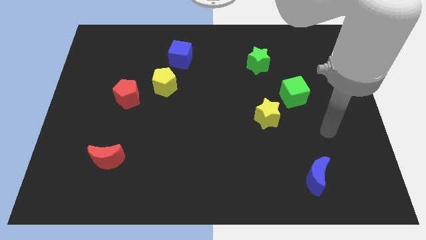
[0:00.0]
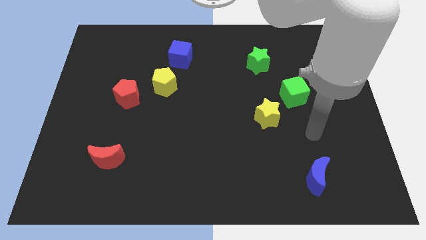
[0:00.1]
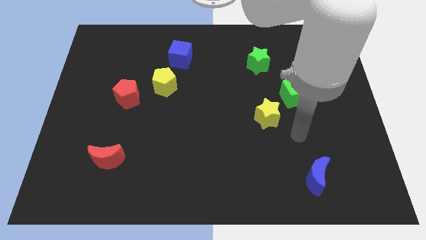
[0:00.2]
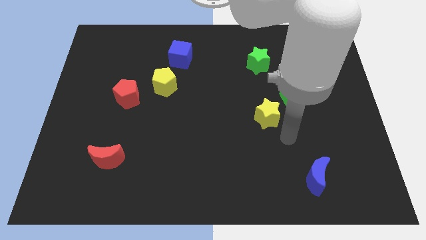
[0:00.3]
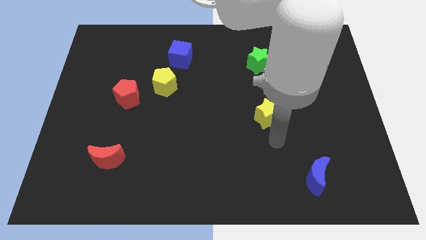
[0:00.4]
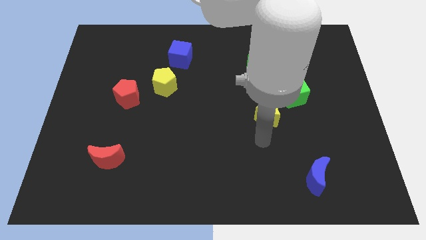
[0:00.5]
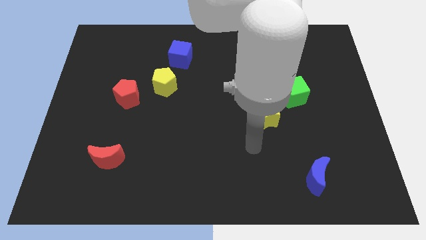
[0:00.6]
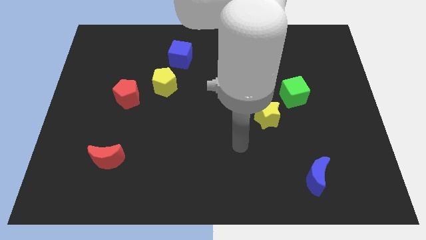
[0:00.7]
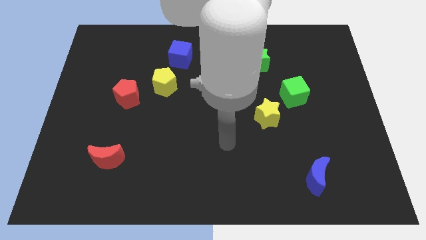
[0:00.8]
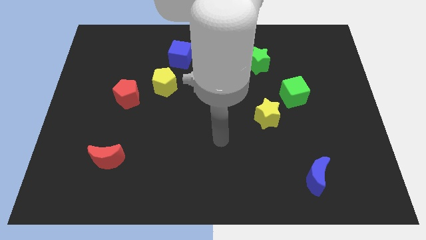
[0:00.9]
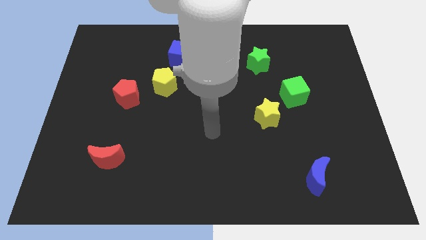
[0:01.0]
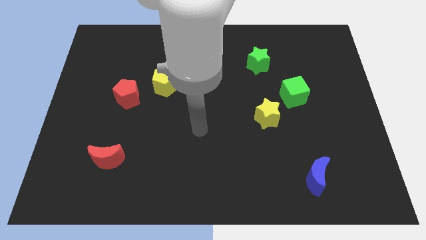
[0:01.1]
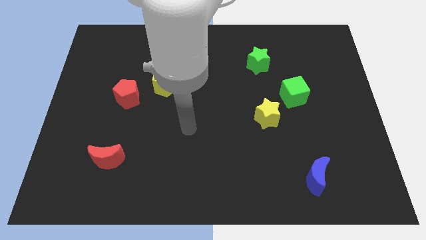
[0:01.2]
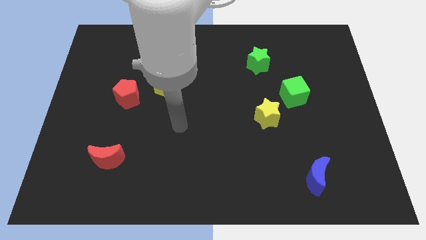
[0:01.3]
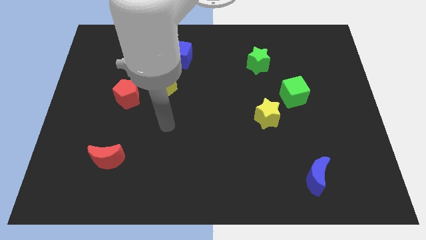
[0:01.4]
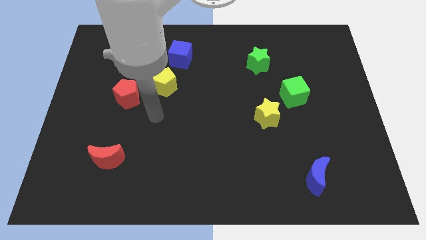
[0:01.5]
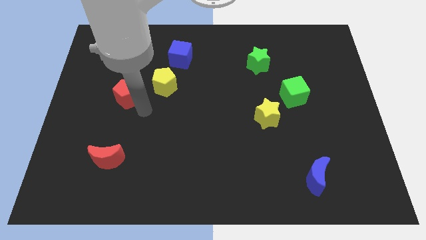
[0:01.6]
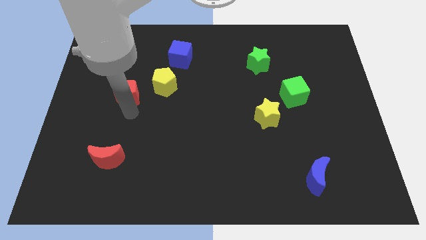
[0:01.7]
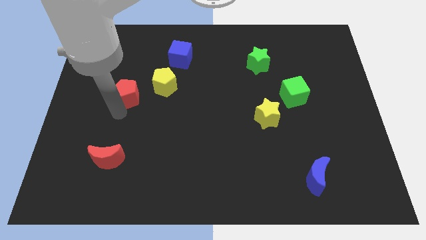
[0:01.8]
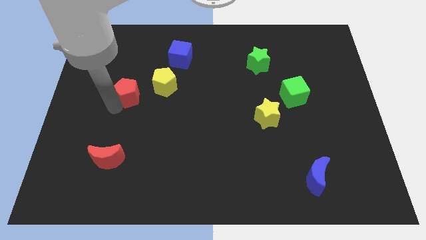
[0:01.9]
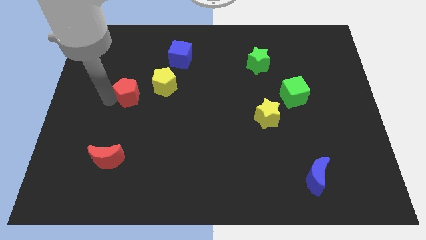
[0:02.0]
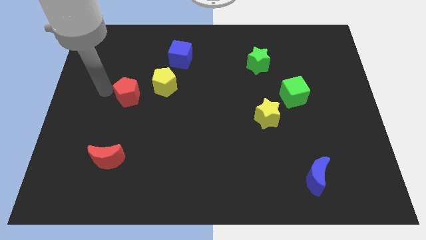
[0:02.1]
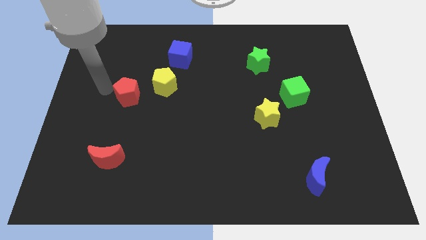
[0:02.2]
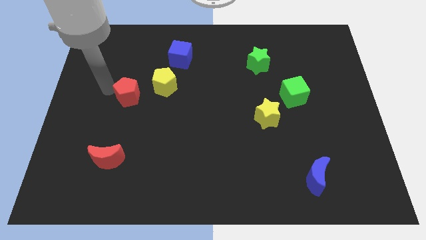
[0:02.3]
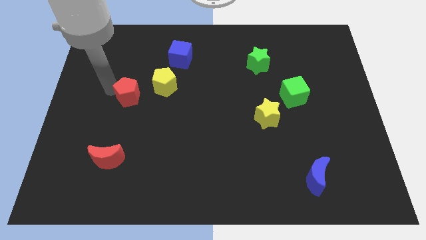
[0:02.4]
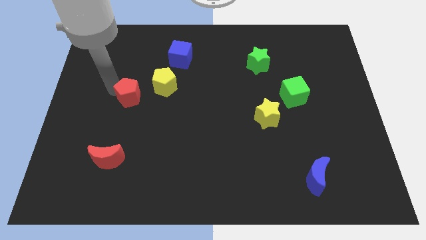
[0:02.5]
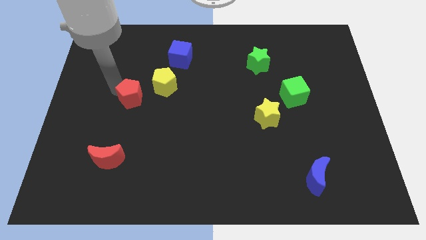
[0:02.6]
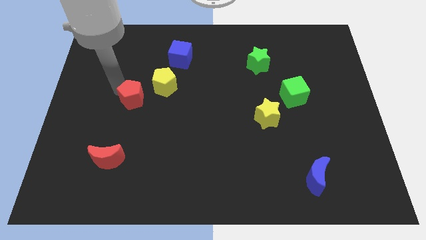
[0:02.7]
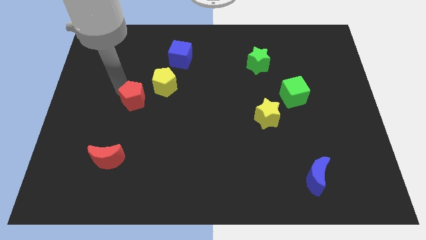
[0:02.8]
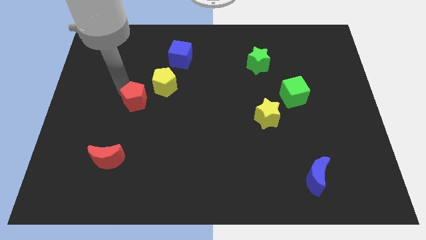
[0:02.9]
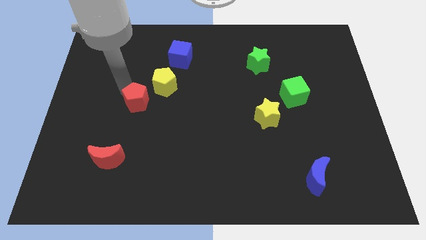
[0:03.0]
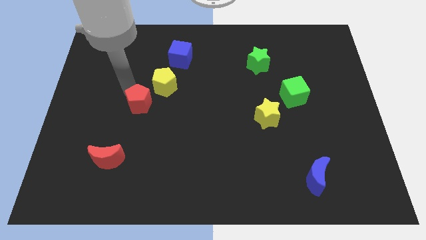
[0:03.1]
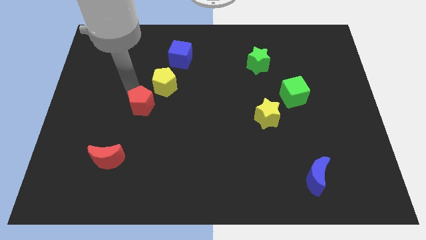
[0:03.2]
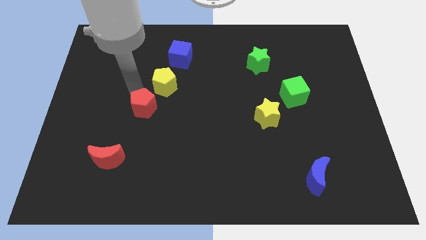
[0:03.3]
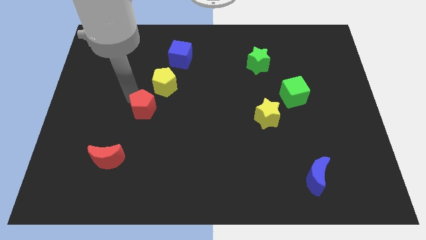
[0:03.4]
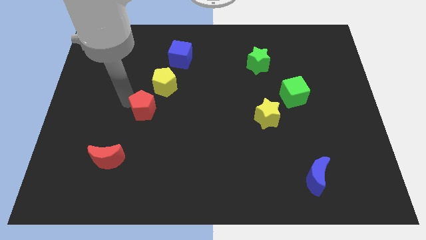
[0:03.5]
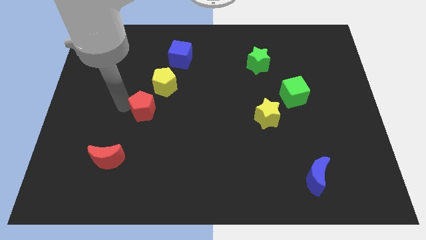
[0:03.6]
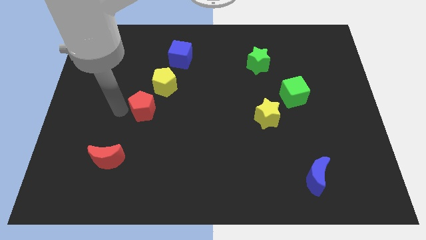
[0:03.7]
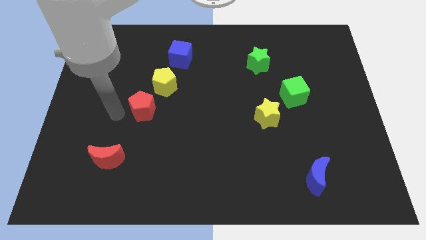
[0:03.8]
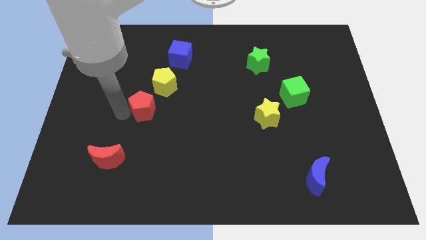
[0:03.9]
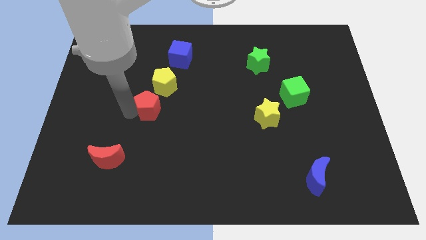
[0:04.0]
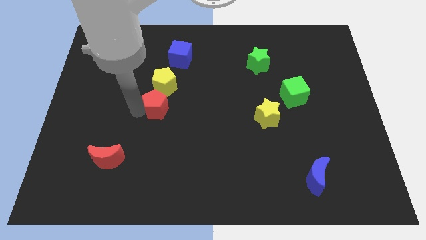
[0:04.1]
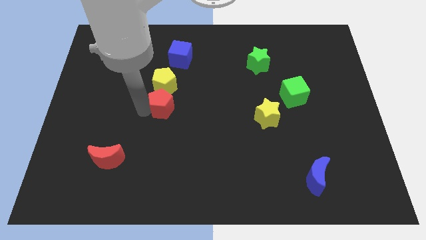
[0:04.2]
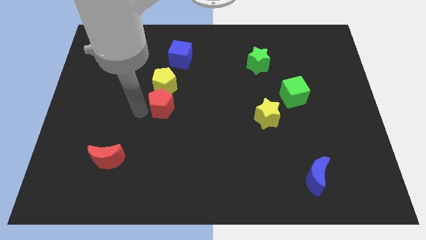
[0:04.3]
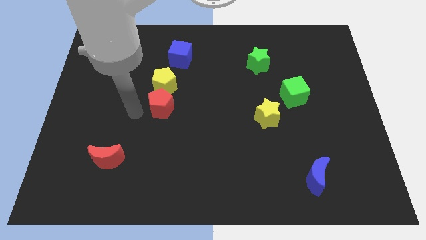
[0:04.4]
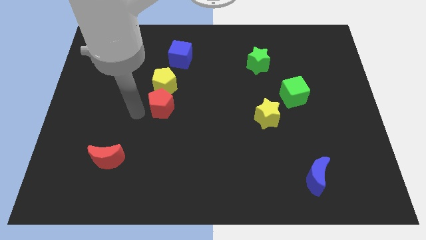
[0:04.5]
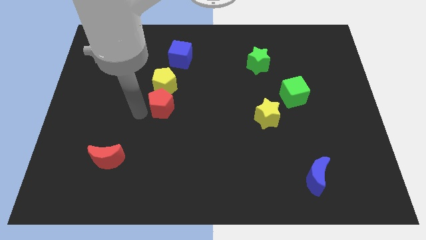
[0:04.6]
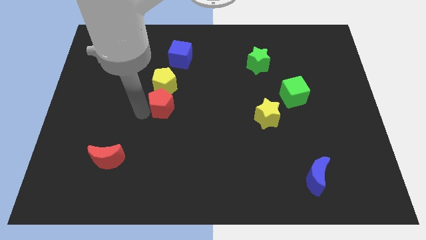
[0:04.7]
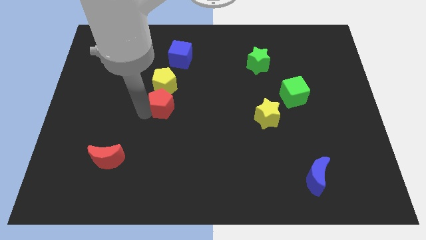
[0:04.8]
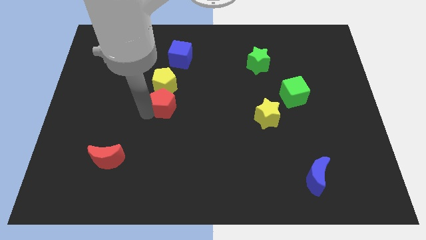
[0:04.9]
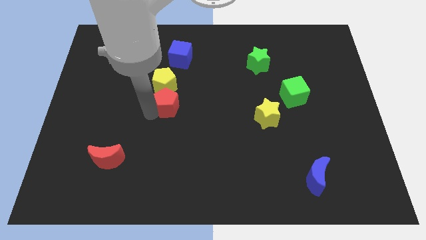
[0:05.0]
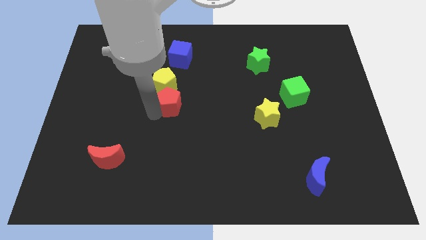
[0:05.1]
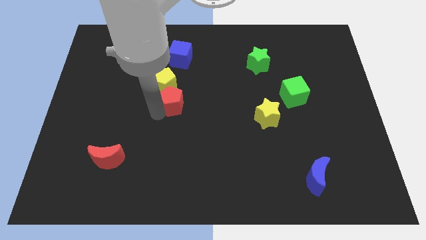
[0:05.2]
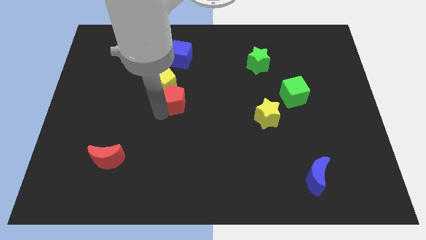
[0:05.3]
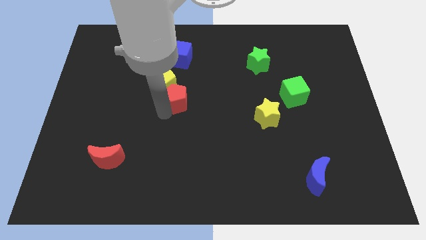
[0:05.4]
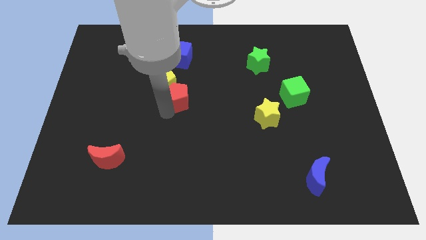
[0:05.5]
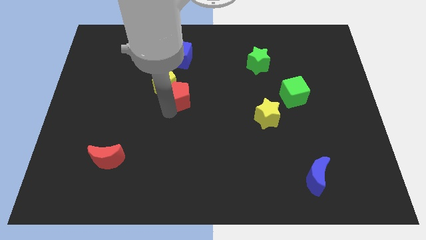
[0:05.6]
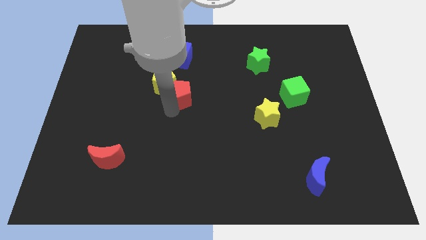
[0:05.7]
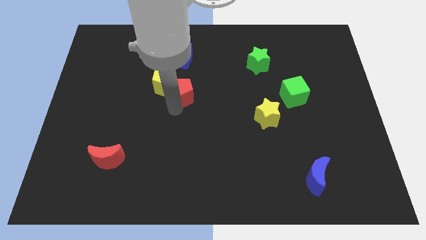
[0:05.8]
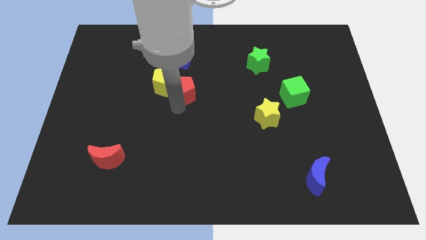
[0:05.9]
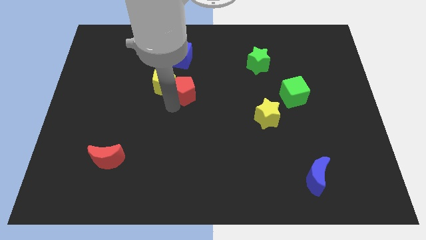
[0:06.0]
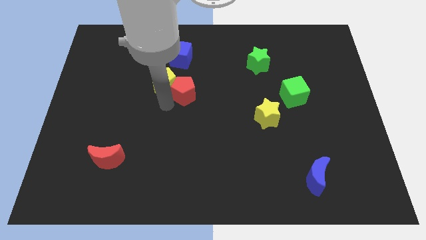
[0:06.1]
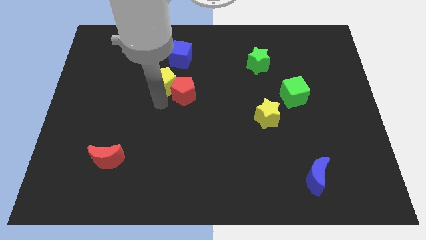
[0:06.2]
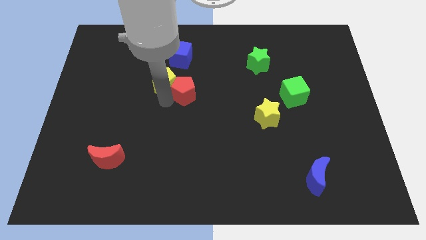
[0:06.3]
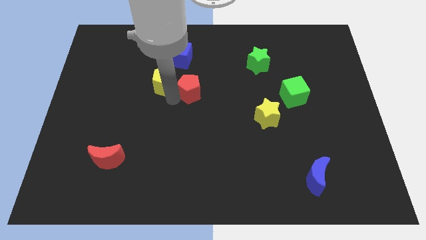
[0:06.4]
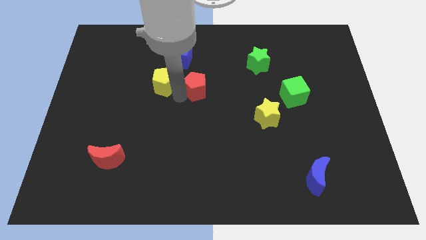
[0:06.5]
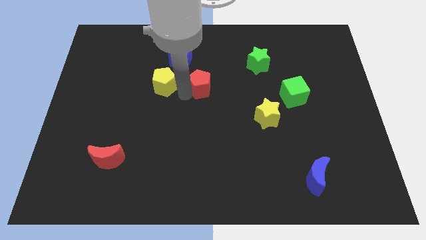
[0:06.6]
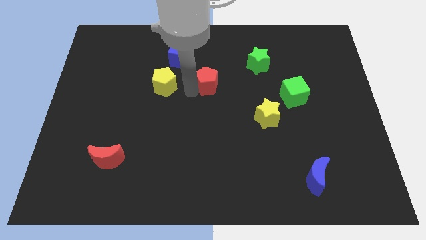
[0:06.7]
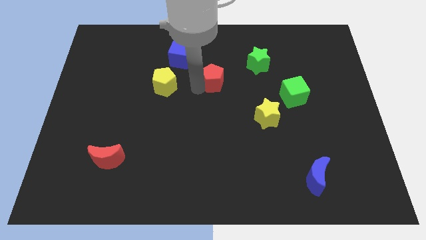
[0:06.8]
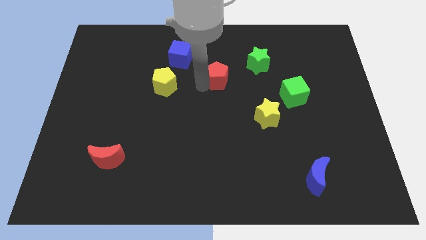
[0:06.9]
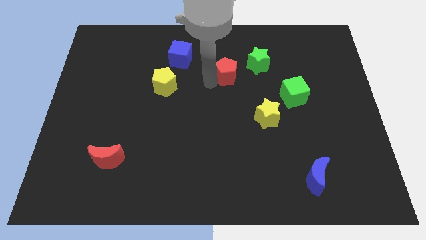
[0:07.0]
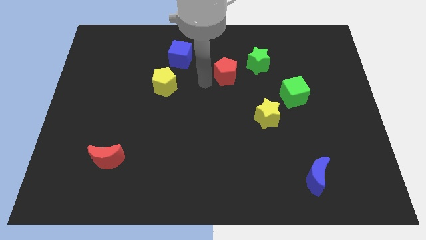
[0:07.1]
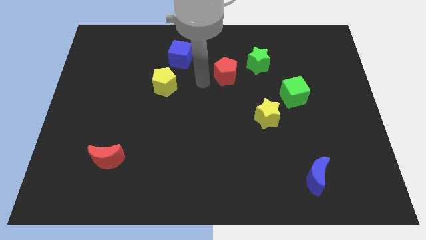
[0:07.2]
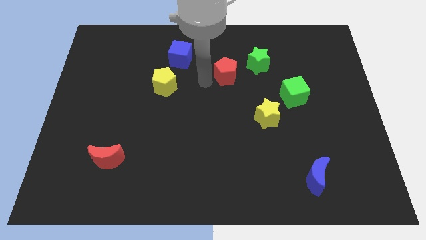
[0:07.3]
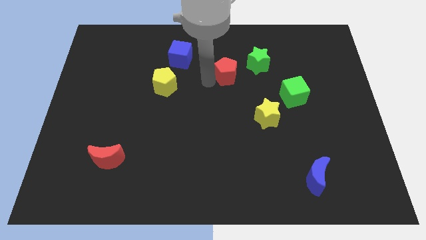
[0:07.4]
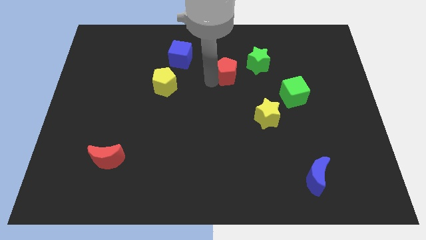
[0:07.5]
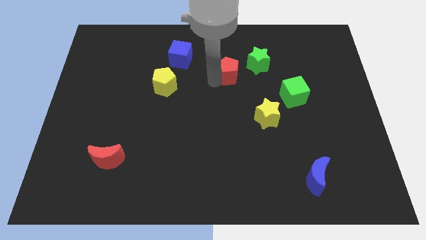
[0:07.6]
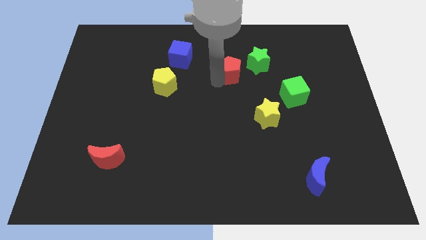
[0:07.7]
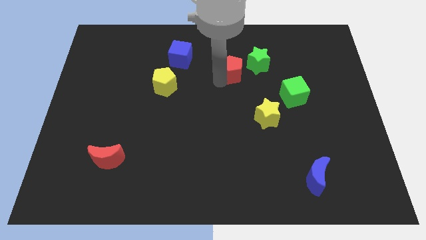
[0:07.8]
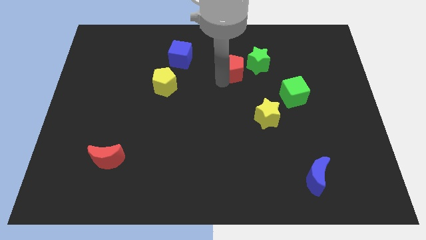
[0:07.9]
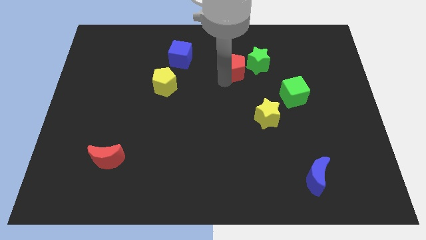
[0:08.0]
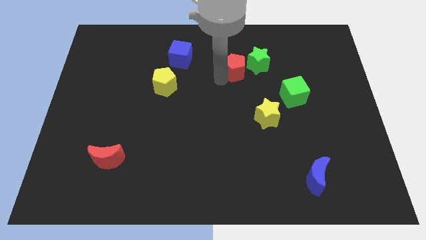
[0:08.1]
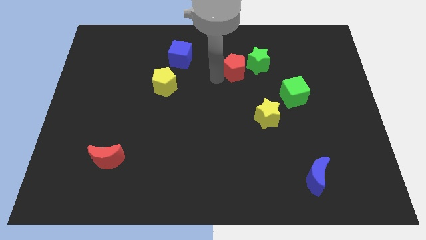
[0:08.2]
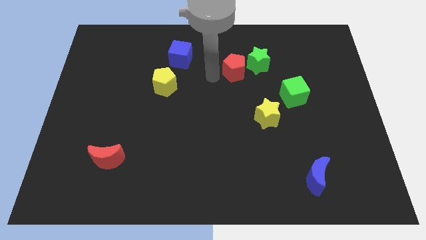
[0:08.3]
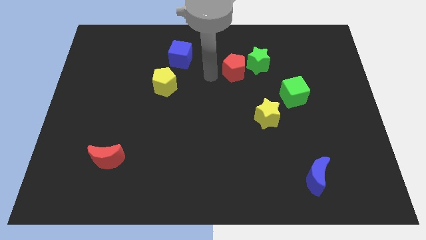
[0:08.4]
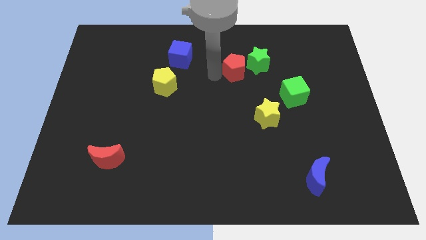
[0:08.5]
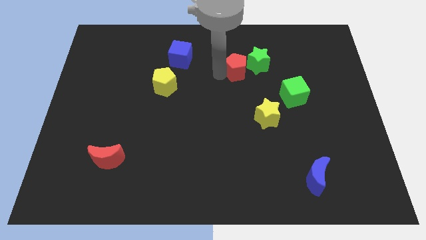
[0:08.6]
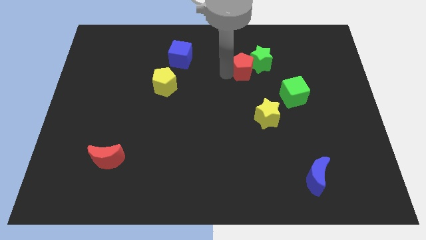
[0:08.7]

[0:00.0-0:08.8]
put the red pentagon close to the green star
